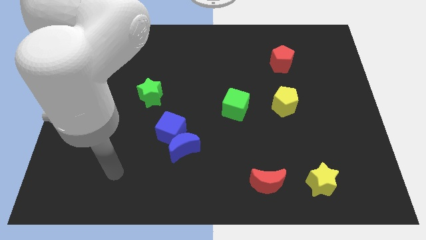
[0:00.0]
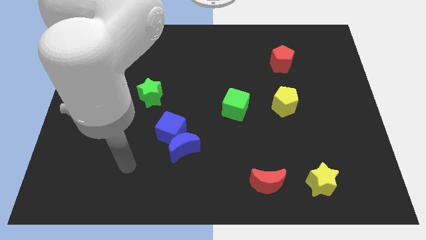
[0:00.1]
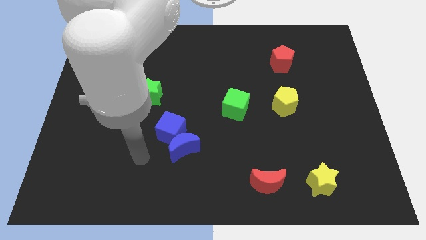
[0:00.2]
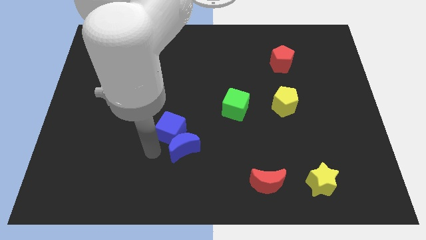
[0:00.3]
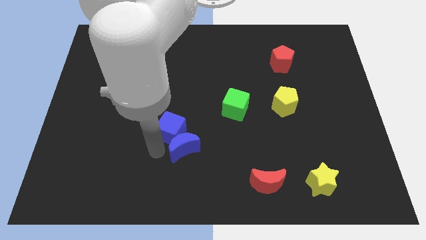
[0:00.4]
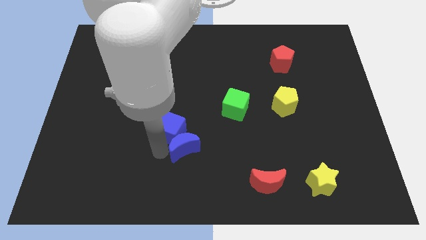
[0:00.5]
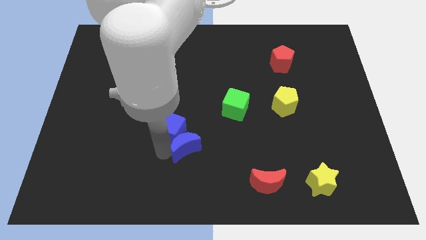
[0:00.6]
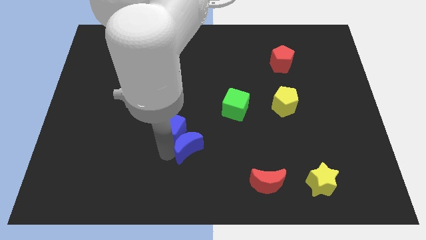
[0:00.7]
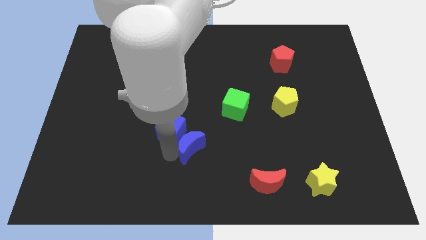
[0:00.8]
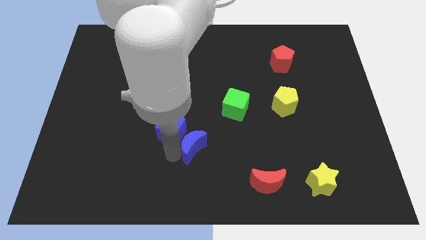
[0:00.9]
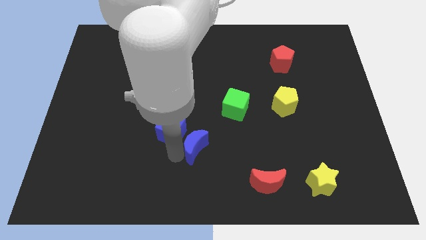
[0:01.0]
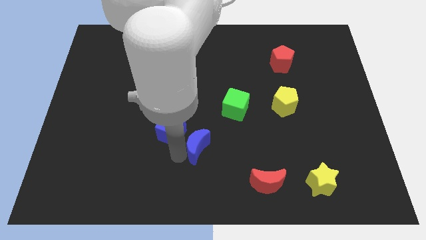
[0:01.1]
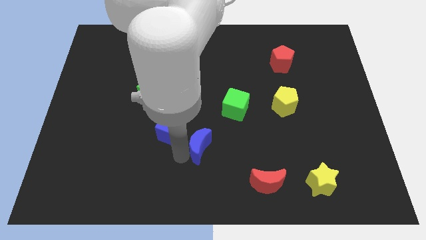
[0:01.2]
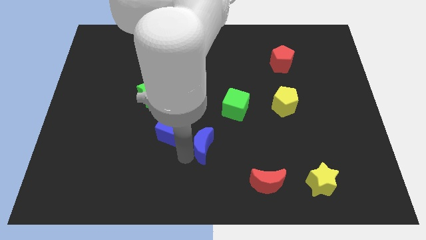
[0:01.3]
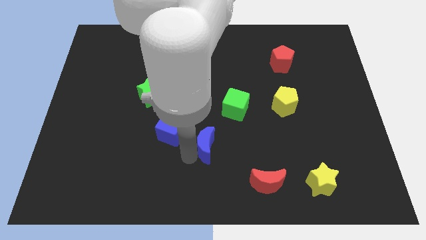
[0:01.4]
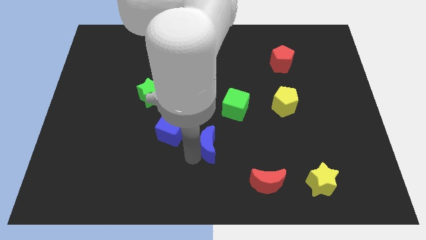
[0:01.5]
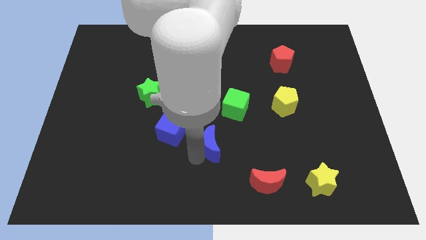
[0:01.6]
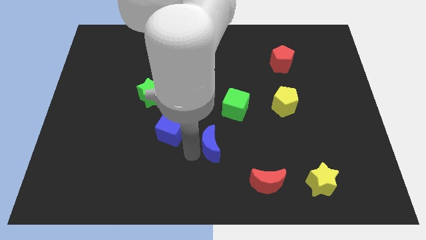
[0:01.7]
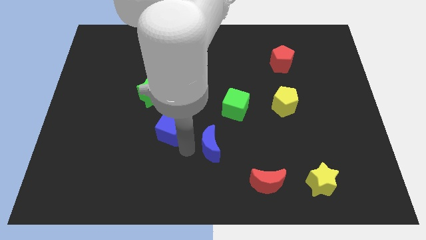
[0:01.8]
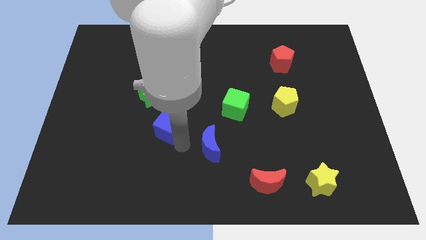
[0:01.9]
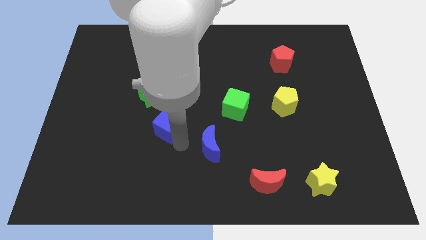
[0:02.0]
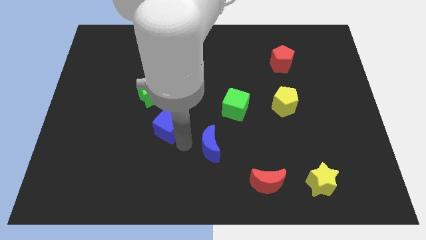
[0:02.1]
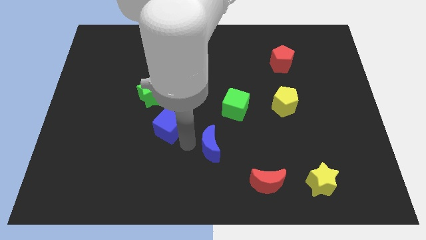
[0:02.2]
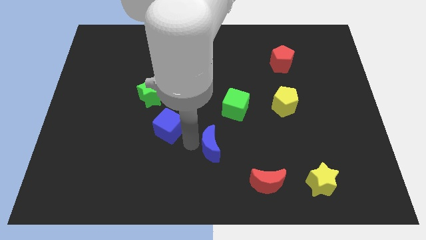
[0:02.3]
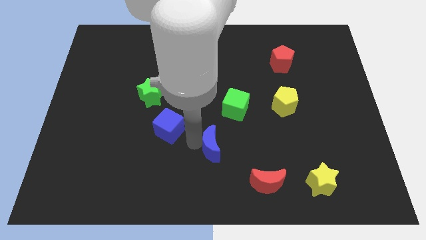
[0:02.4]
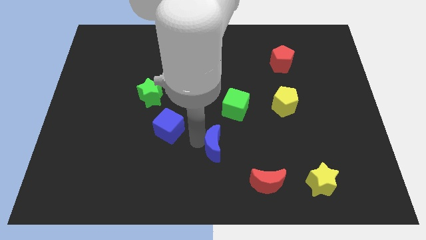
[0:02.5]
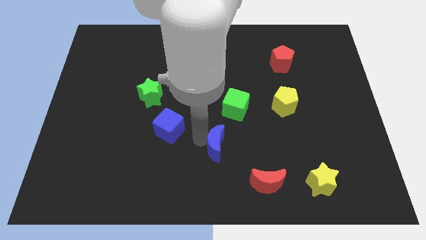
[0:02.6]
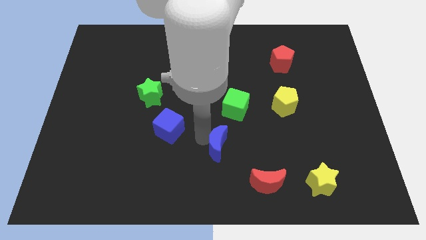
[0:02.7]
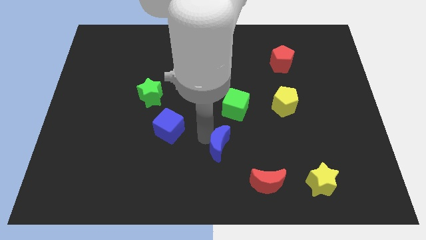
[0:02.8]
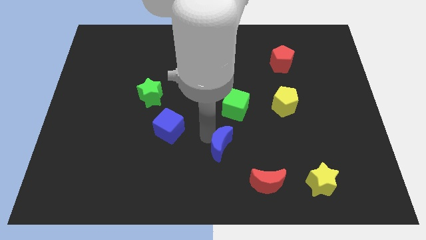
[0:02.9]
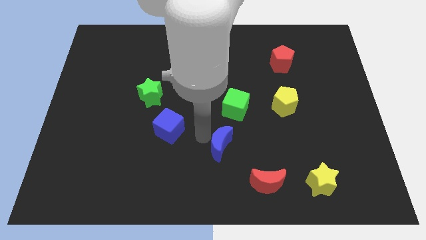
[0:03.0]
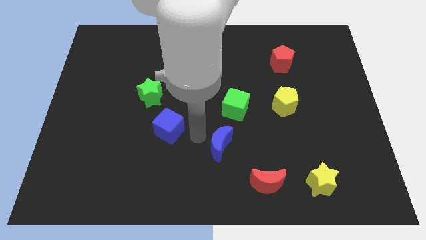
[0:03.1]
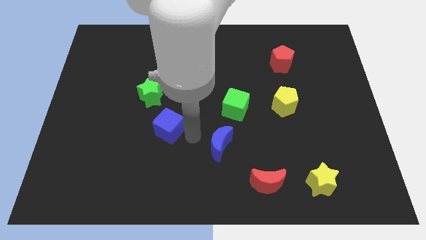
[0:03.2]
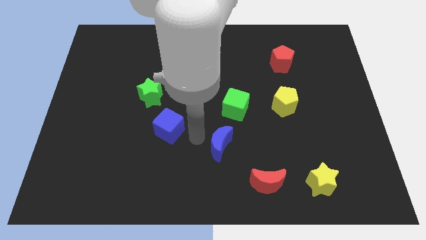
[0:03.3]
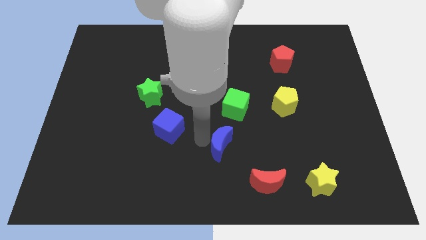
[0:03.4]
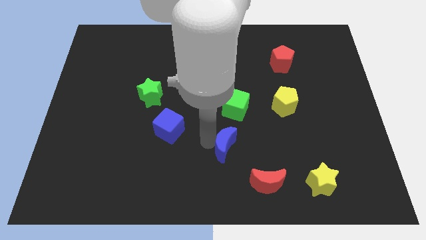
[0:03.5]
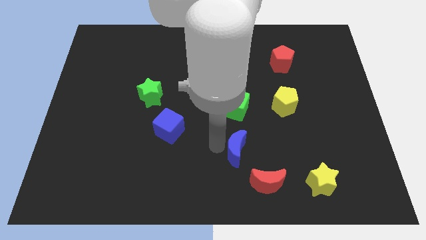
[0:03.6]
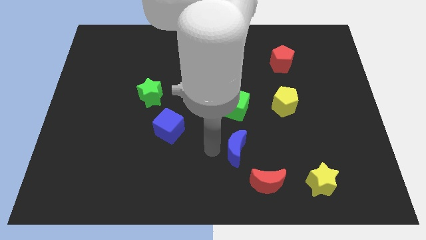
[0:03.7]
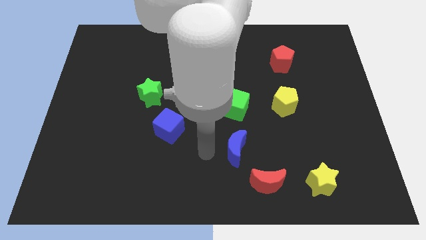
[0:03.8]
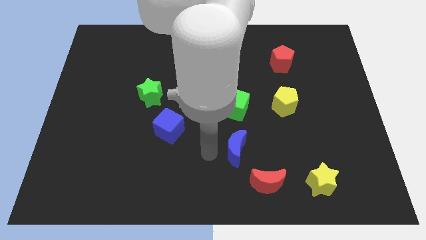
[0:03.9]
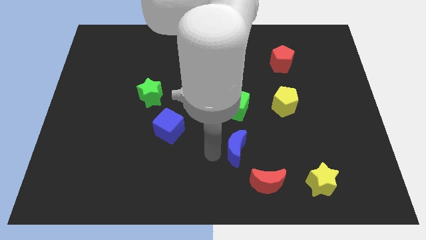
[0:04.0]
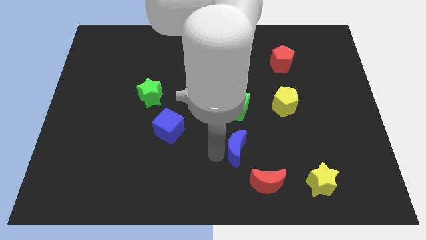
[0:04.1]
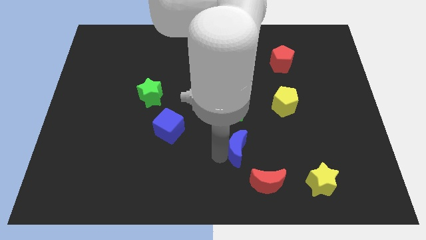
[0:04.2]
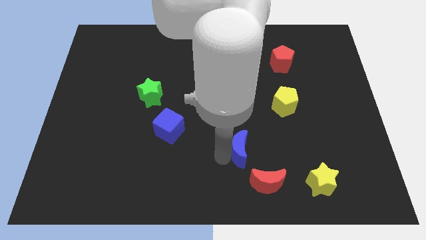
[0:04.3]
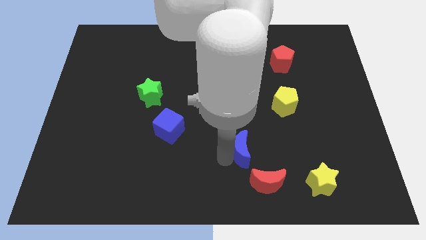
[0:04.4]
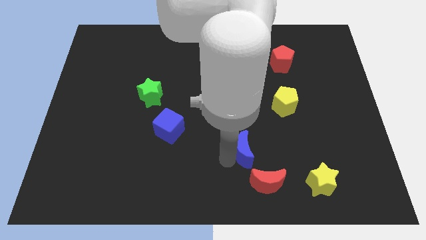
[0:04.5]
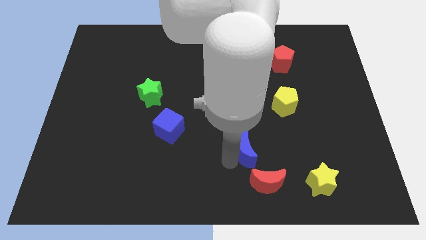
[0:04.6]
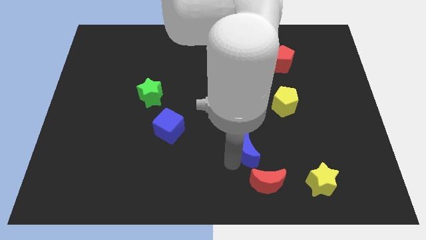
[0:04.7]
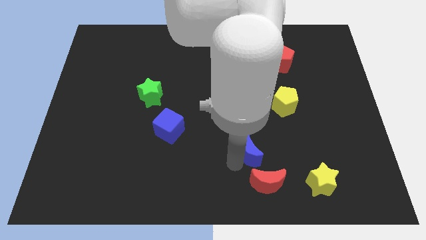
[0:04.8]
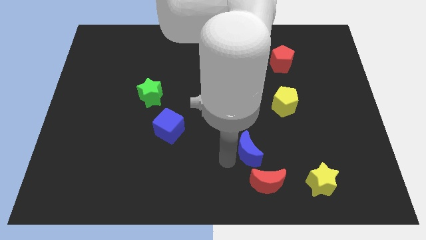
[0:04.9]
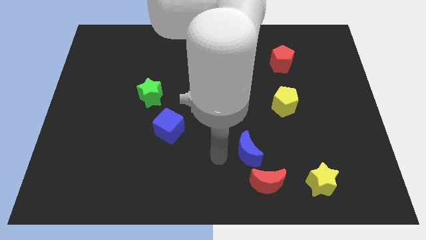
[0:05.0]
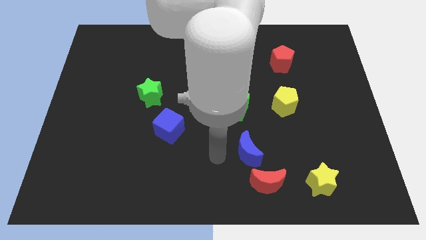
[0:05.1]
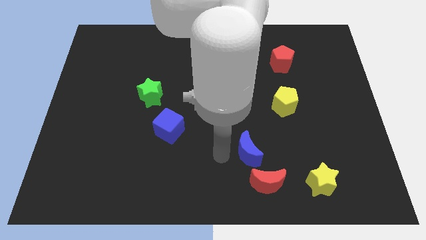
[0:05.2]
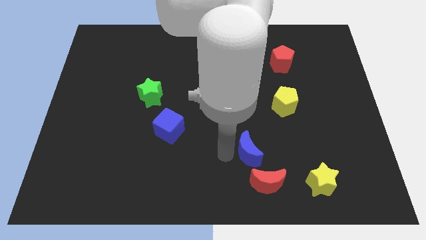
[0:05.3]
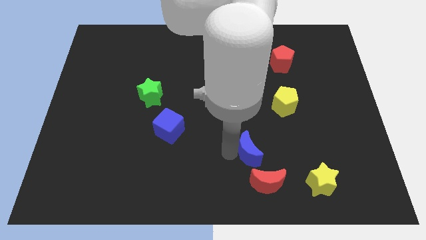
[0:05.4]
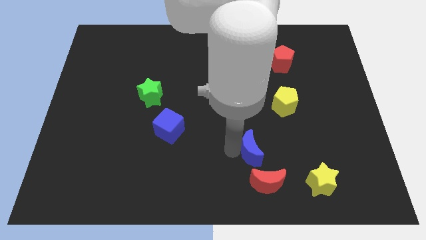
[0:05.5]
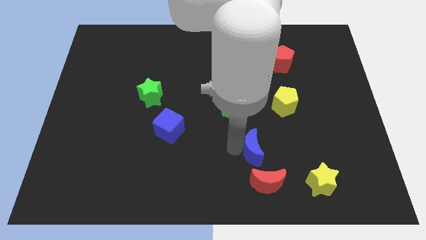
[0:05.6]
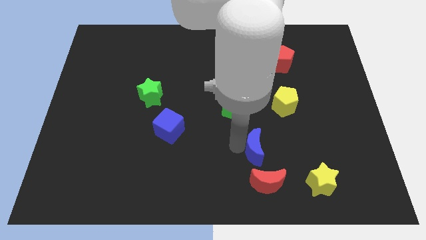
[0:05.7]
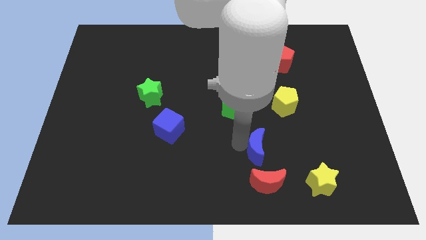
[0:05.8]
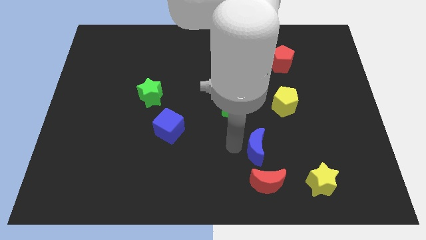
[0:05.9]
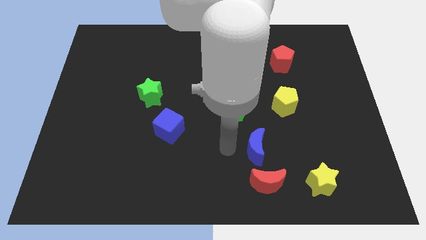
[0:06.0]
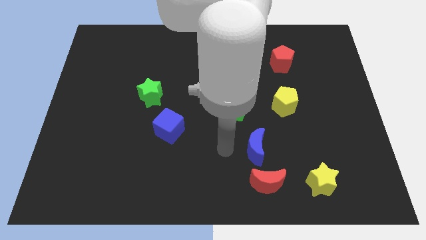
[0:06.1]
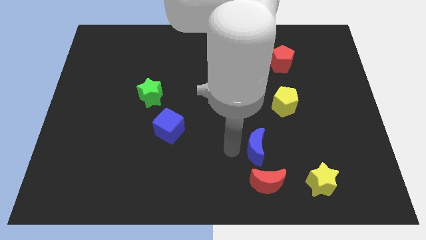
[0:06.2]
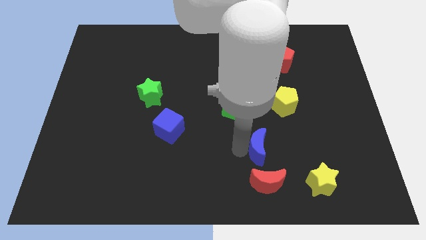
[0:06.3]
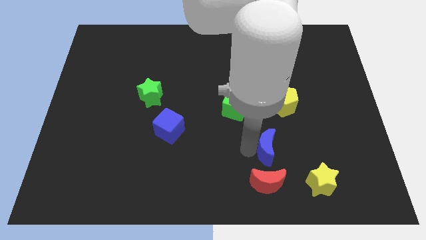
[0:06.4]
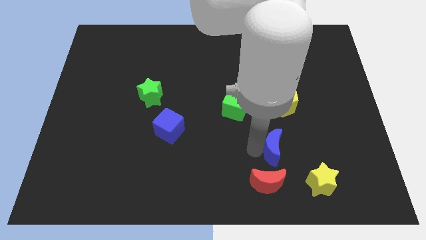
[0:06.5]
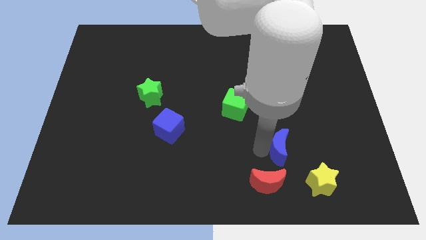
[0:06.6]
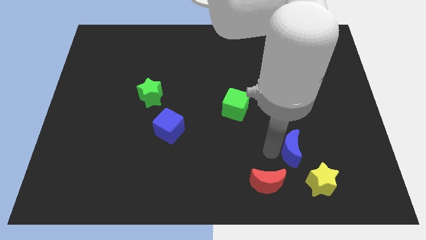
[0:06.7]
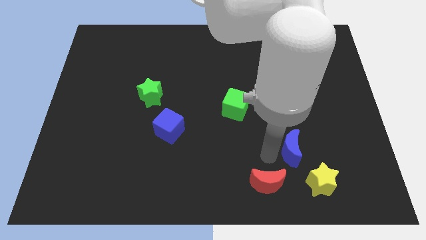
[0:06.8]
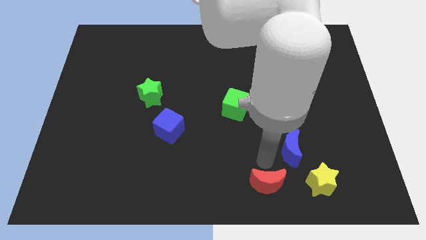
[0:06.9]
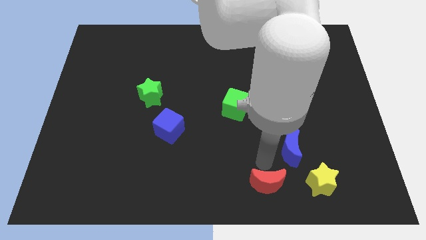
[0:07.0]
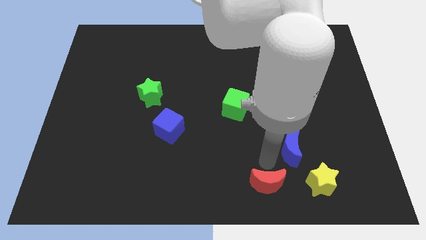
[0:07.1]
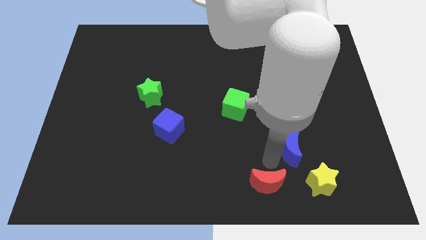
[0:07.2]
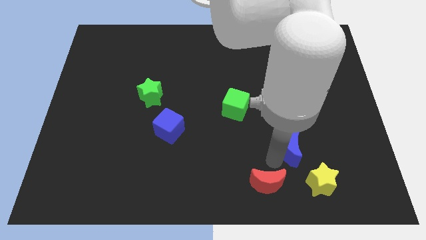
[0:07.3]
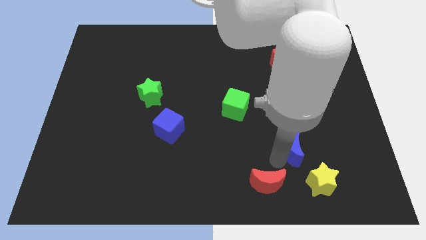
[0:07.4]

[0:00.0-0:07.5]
move the blue moon above the yellow star
